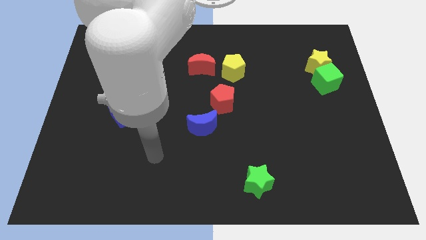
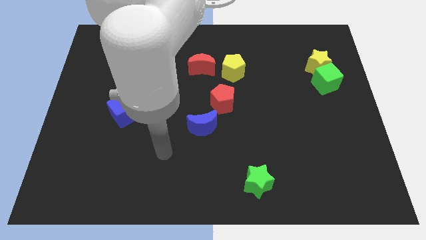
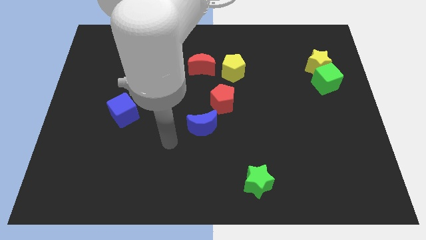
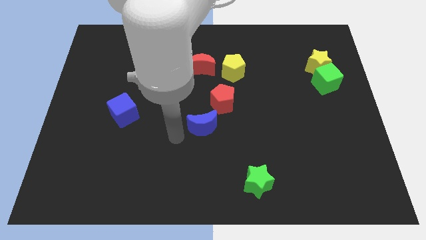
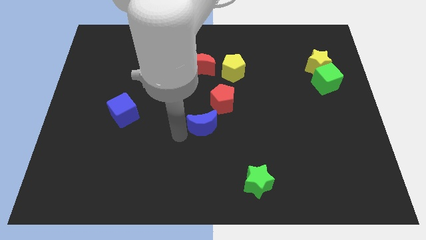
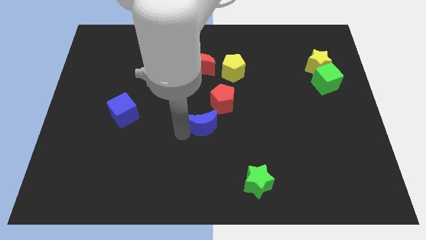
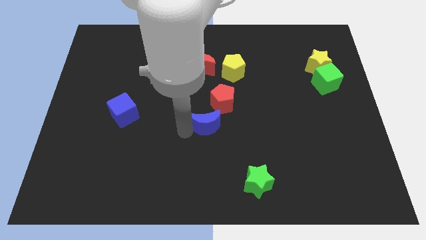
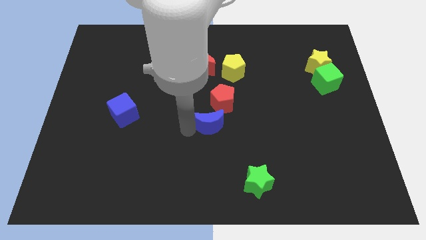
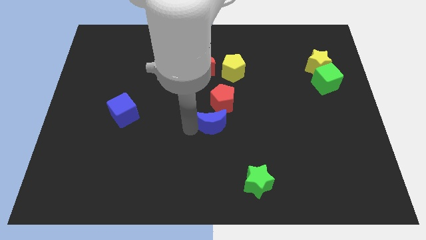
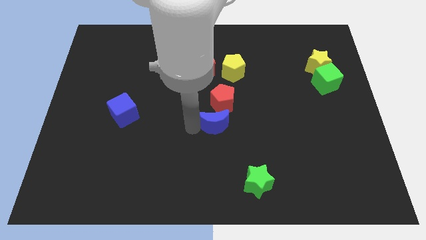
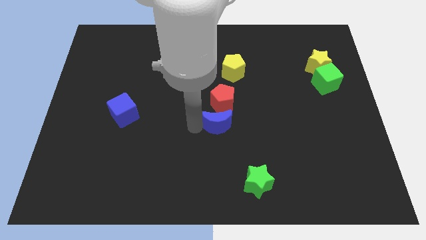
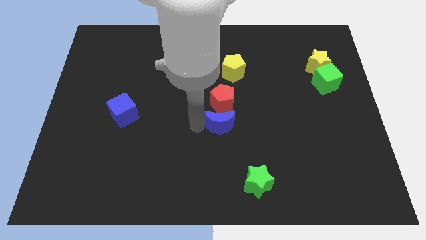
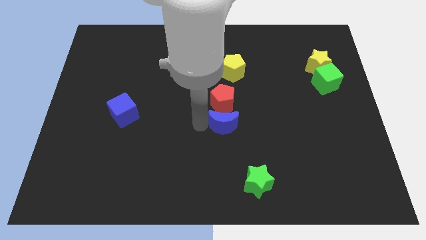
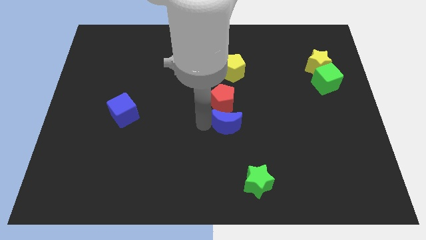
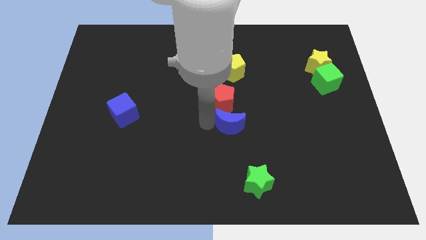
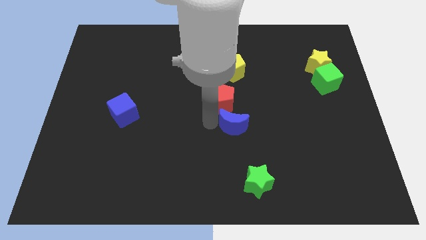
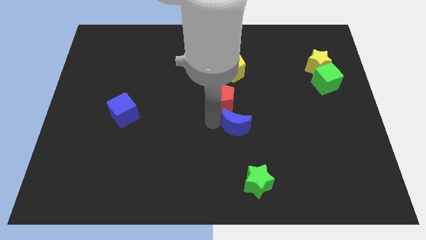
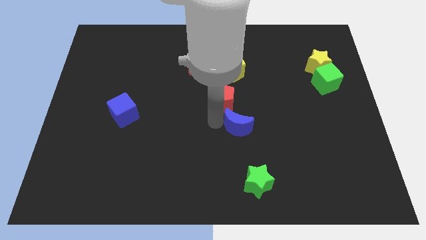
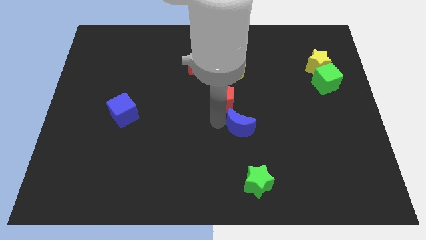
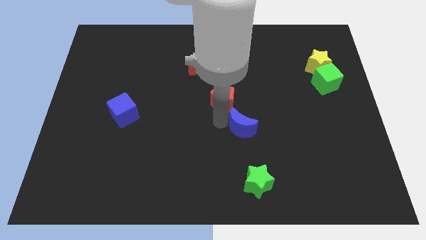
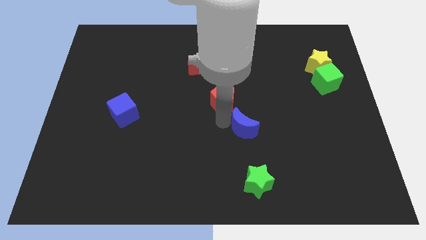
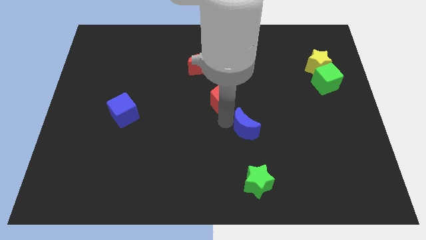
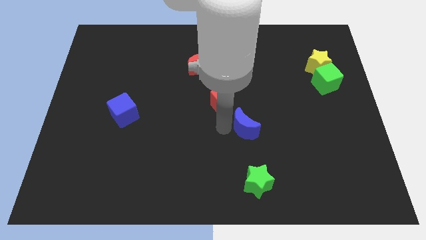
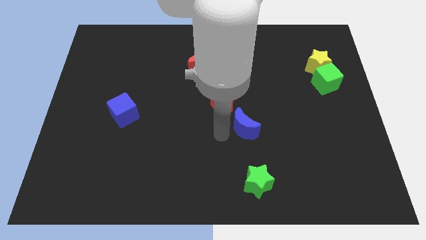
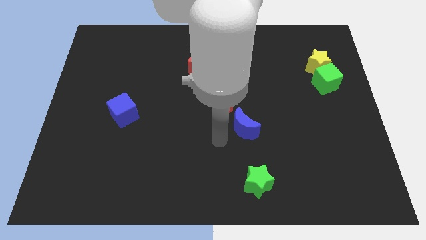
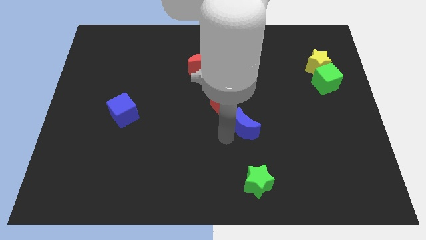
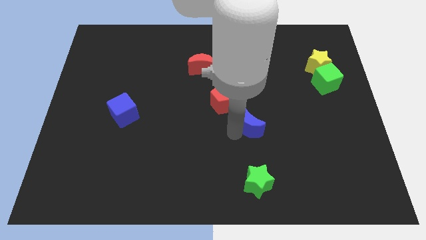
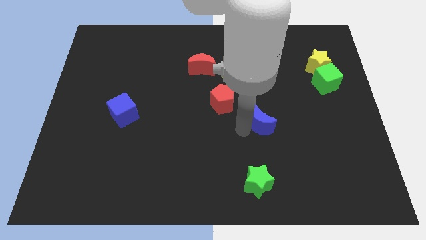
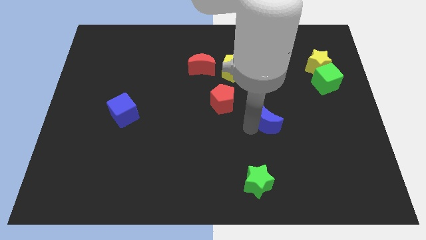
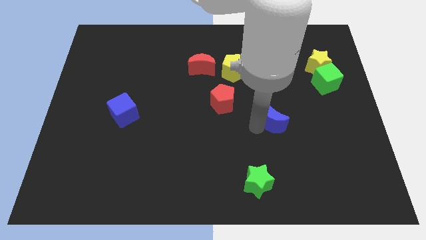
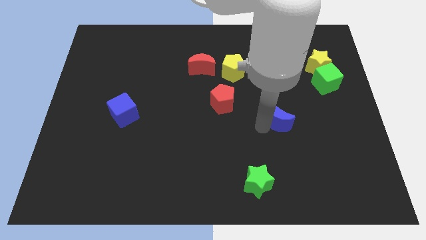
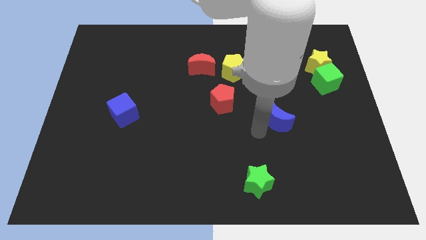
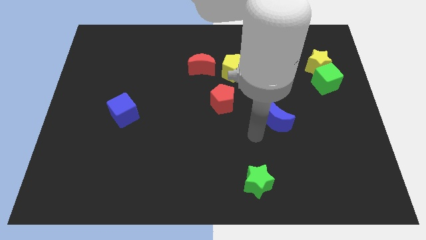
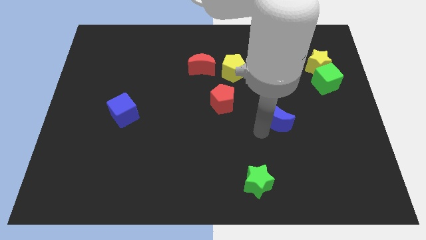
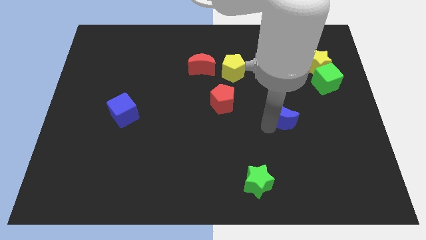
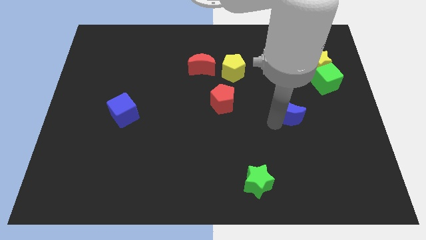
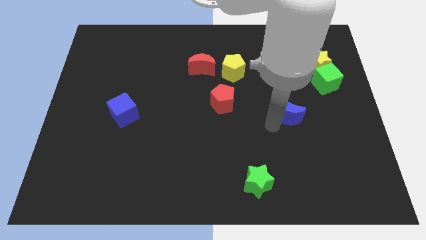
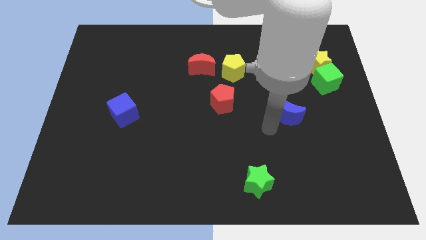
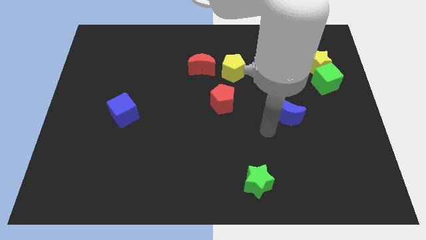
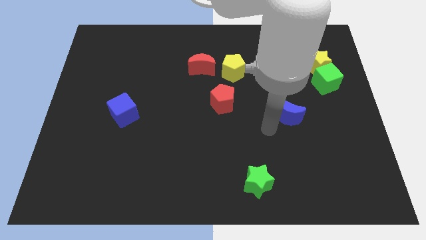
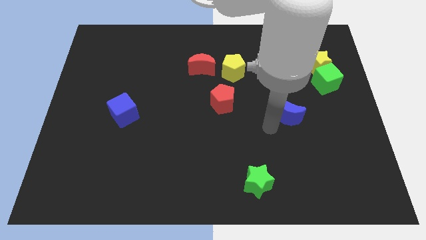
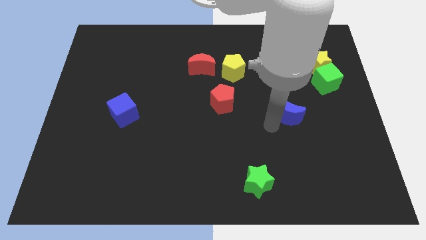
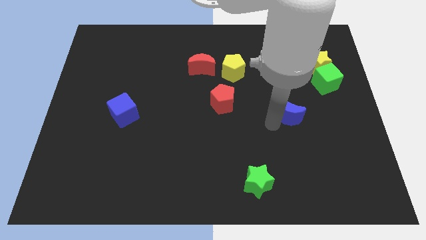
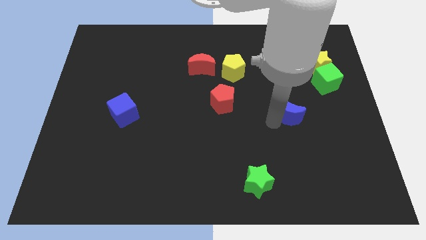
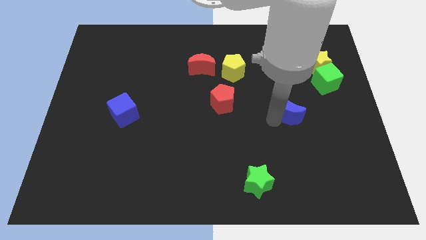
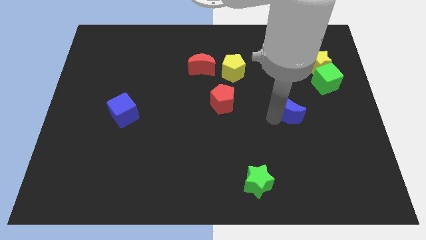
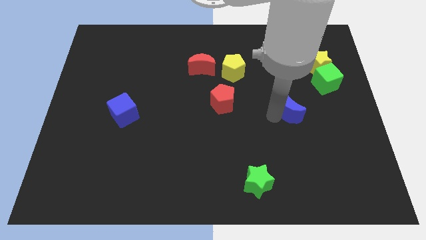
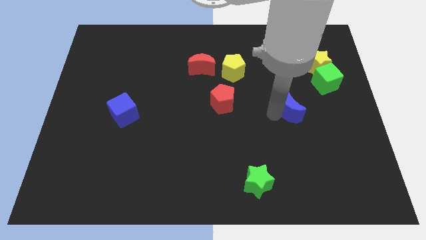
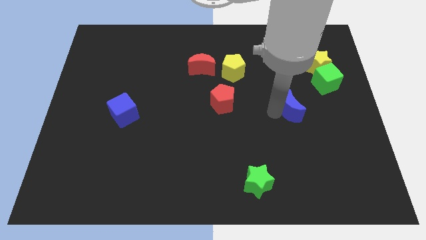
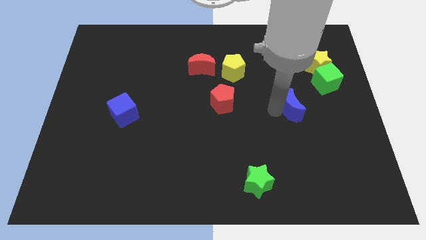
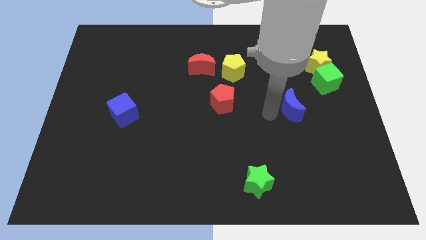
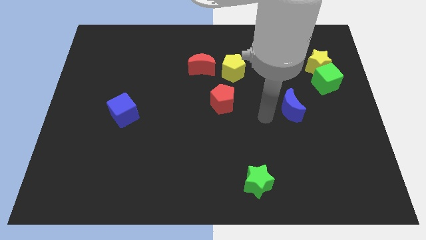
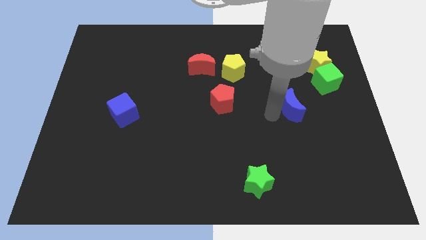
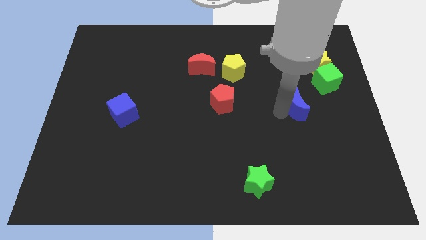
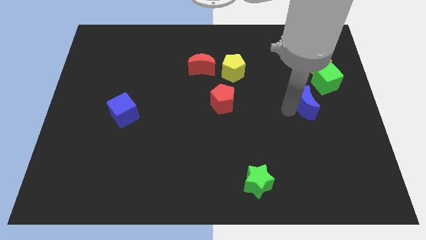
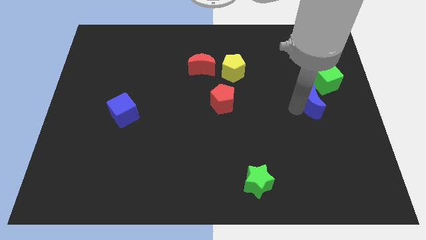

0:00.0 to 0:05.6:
slide the blue moon below the yellow star

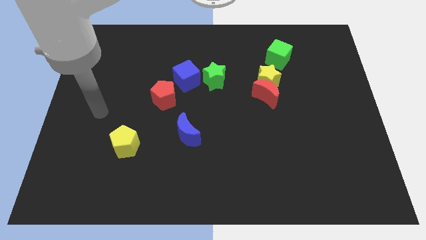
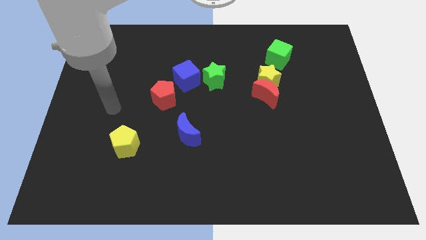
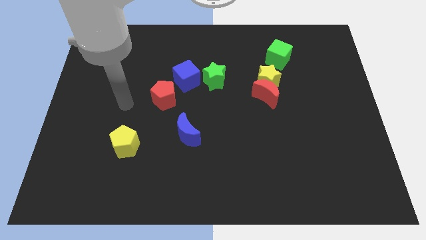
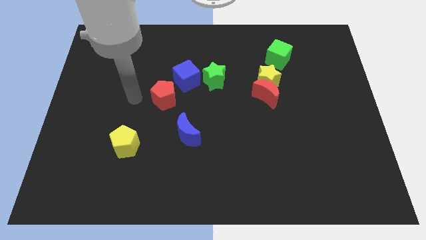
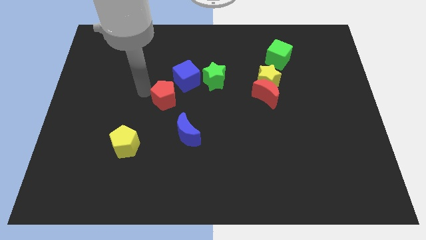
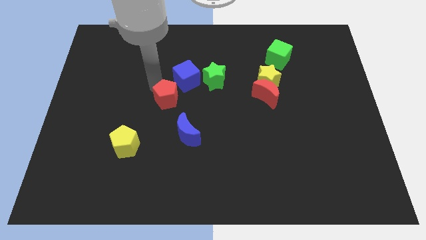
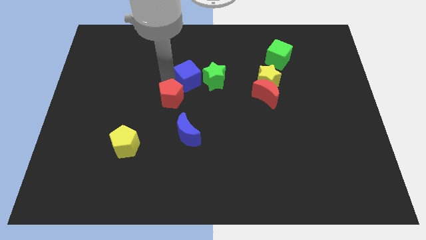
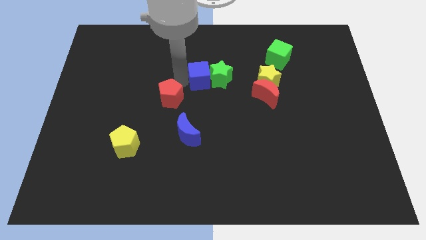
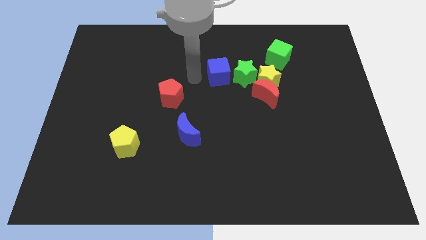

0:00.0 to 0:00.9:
move the green star to the top left side of the red moon
